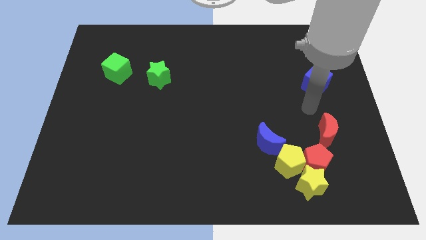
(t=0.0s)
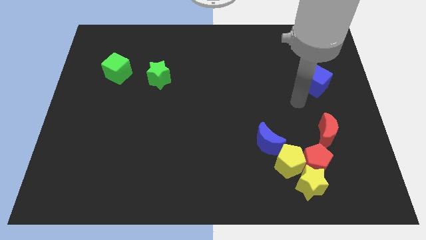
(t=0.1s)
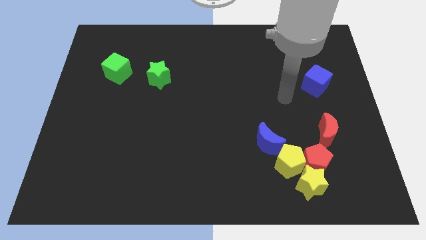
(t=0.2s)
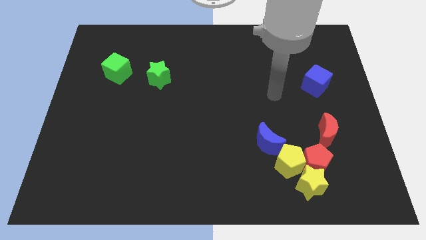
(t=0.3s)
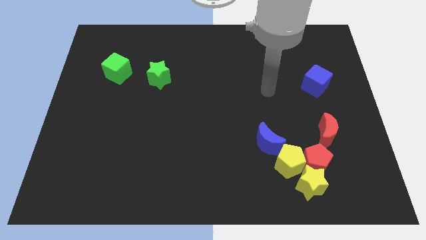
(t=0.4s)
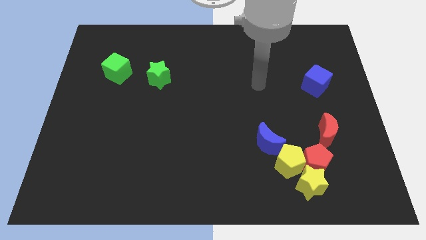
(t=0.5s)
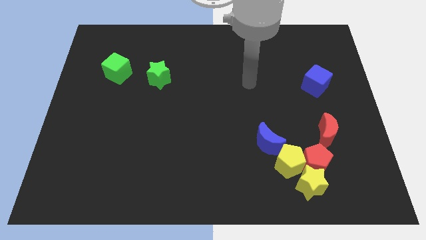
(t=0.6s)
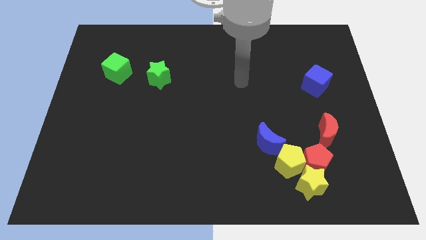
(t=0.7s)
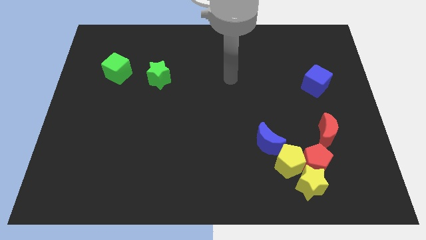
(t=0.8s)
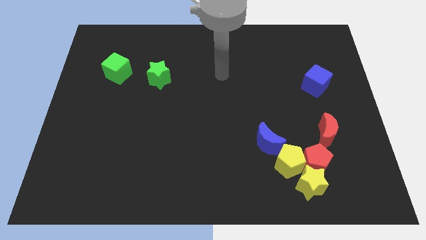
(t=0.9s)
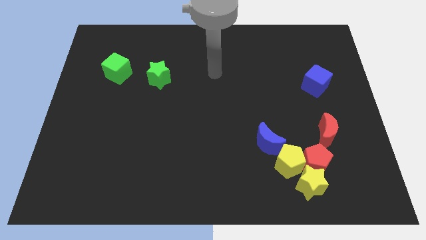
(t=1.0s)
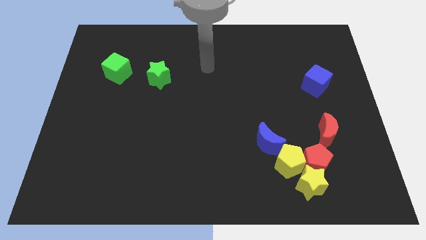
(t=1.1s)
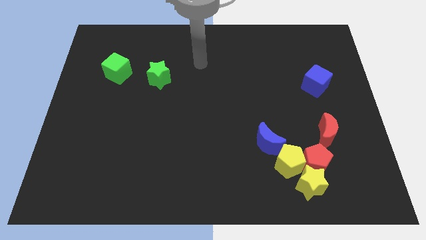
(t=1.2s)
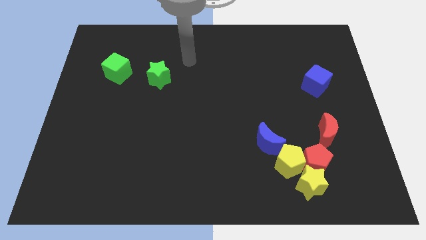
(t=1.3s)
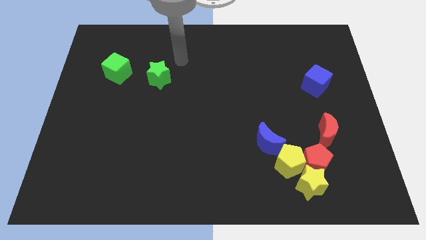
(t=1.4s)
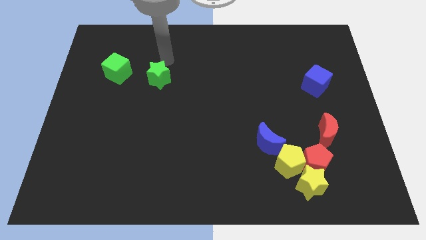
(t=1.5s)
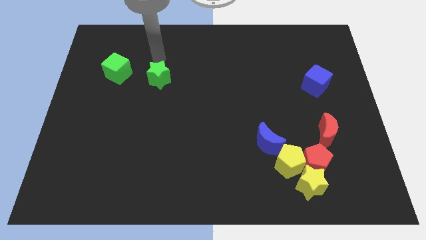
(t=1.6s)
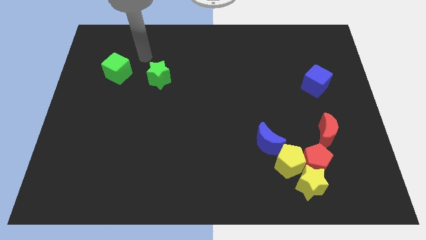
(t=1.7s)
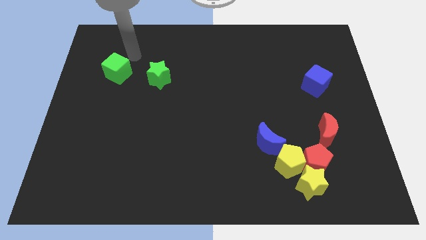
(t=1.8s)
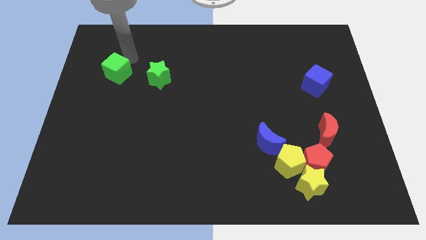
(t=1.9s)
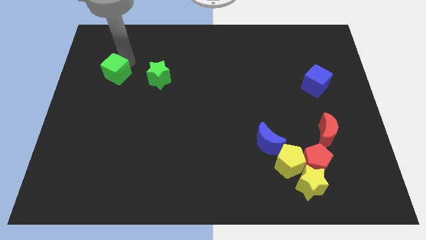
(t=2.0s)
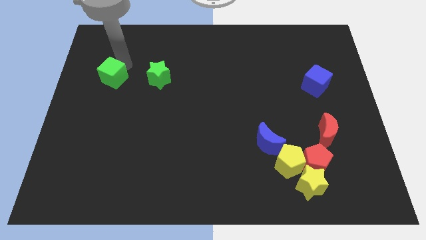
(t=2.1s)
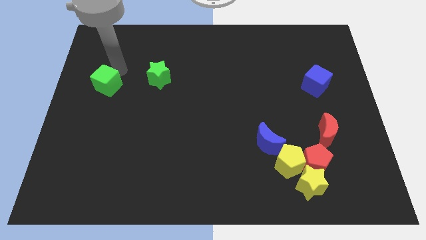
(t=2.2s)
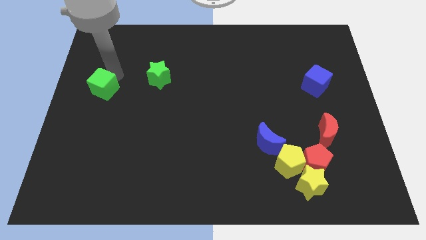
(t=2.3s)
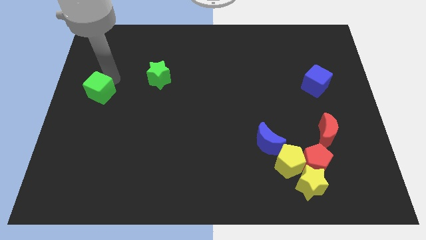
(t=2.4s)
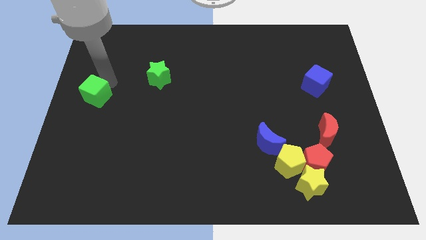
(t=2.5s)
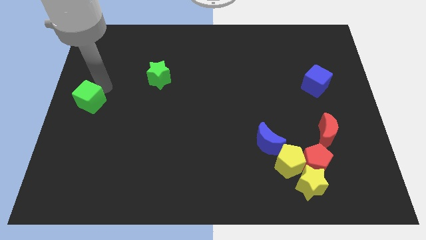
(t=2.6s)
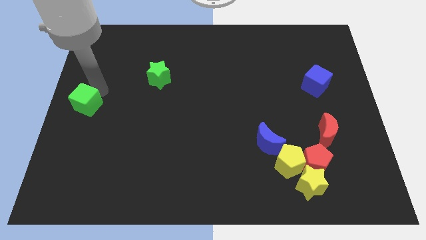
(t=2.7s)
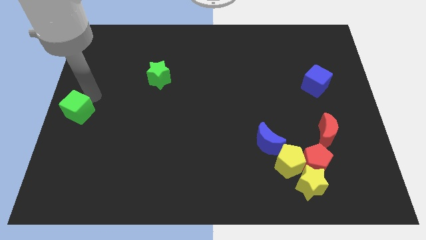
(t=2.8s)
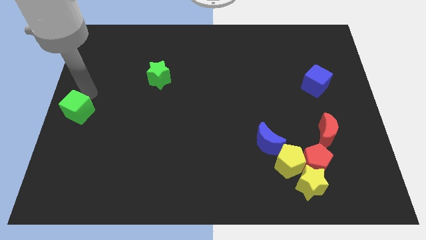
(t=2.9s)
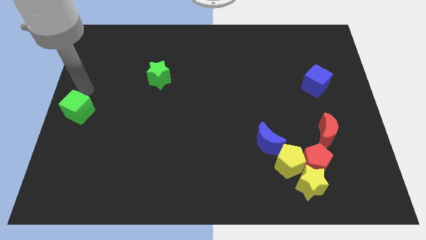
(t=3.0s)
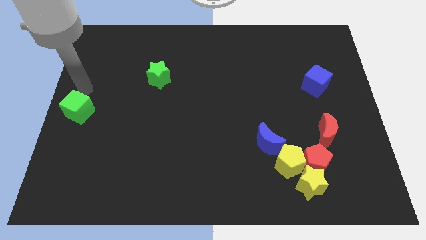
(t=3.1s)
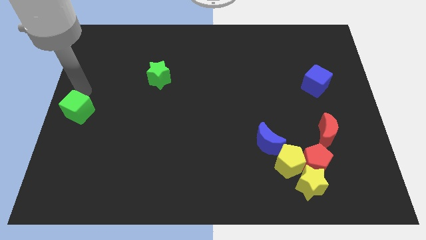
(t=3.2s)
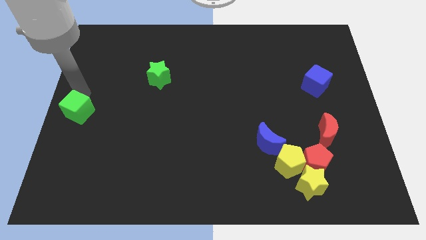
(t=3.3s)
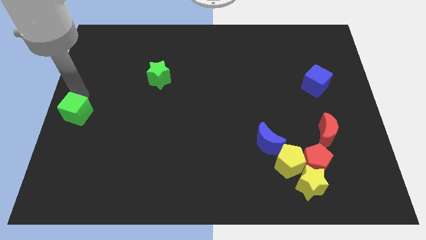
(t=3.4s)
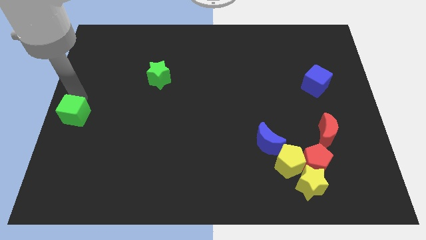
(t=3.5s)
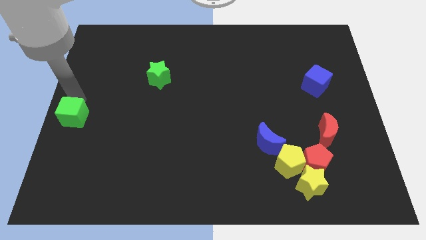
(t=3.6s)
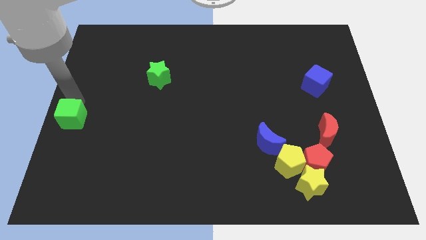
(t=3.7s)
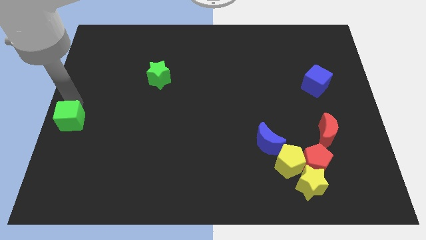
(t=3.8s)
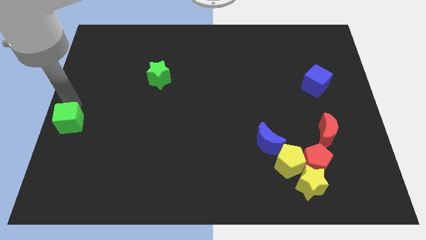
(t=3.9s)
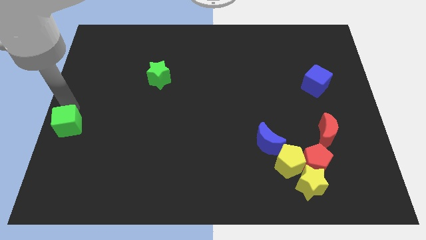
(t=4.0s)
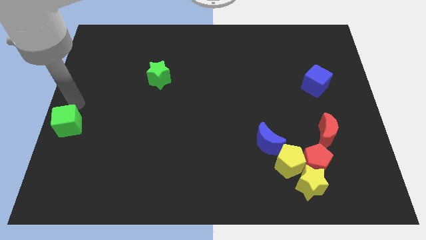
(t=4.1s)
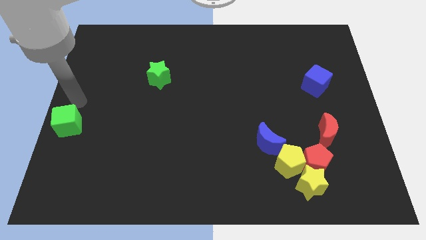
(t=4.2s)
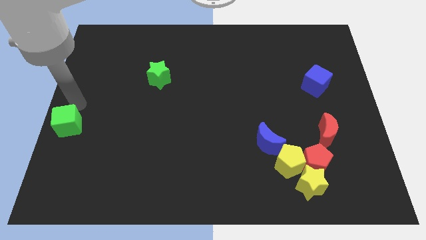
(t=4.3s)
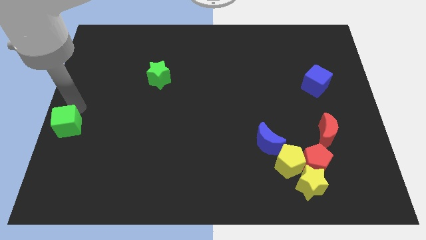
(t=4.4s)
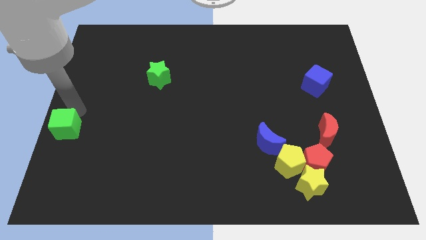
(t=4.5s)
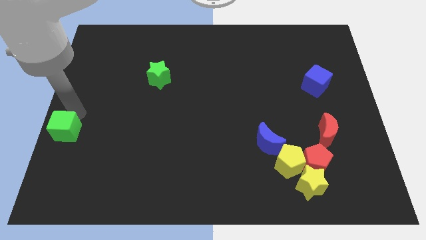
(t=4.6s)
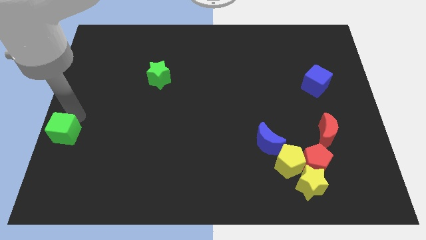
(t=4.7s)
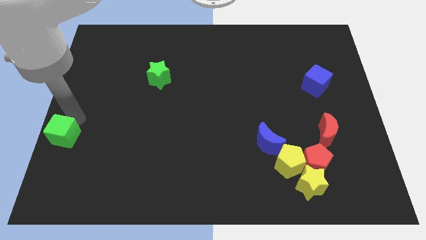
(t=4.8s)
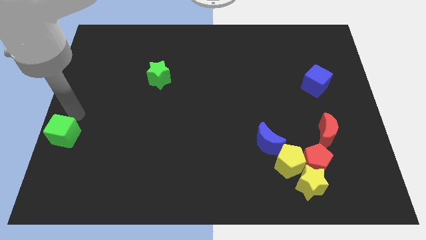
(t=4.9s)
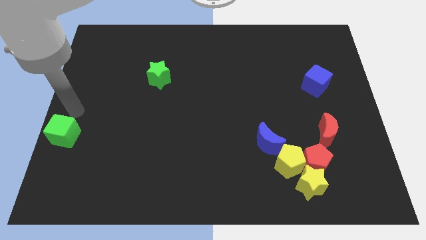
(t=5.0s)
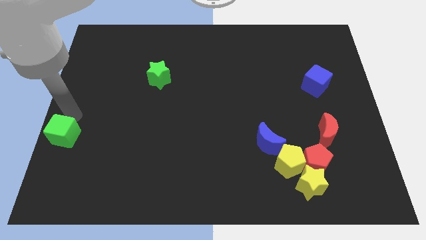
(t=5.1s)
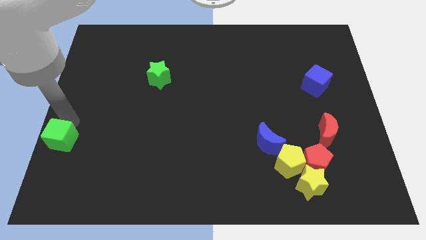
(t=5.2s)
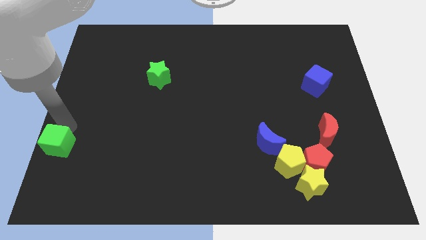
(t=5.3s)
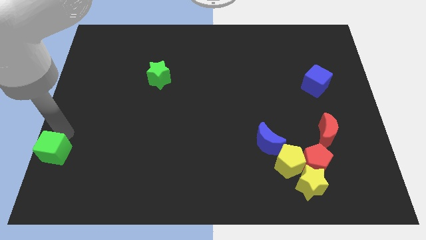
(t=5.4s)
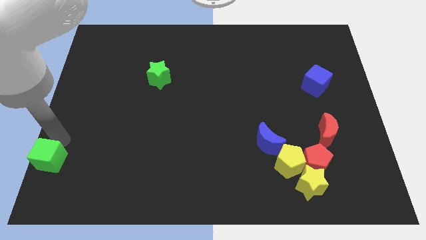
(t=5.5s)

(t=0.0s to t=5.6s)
move the green cube to the bottom left

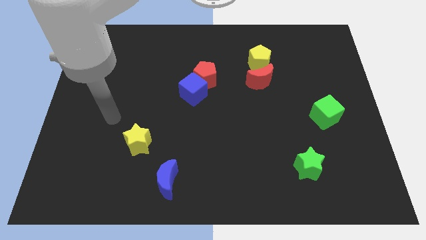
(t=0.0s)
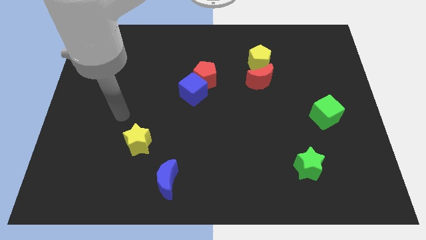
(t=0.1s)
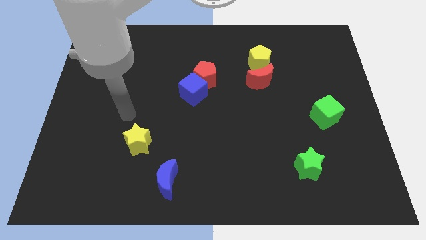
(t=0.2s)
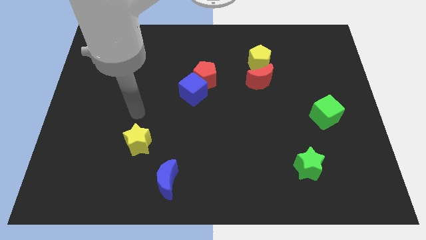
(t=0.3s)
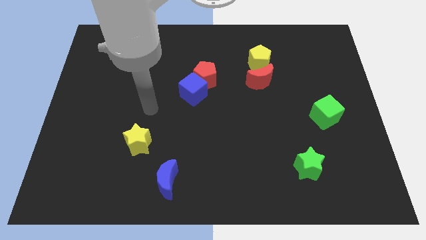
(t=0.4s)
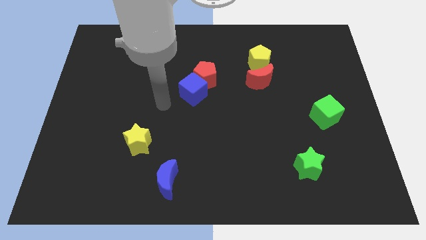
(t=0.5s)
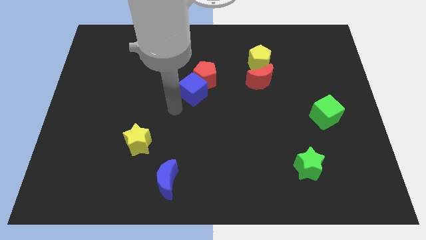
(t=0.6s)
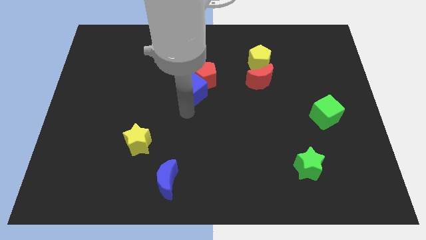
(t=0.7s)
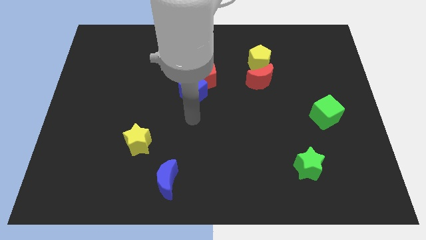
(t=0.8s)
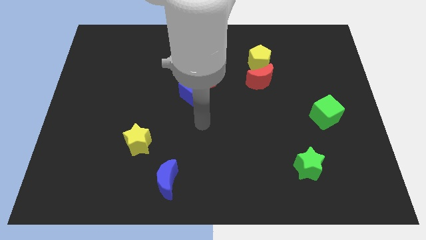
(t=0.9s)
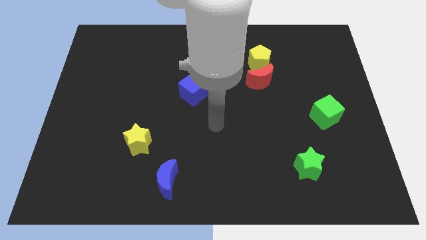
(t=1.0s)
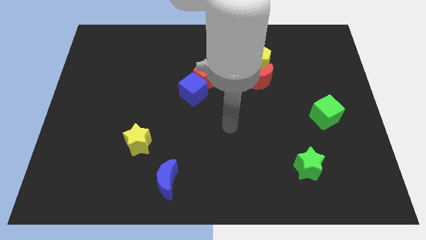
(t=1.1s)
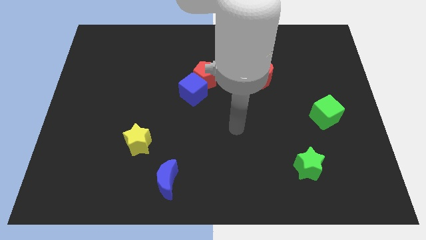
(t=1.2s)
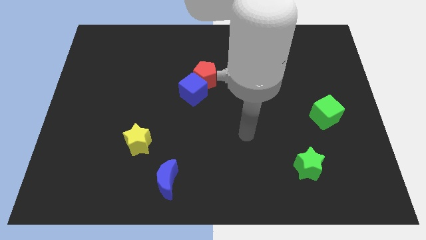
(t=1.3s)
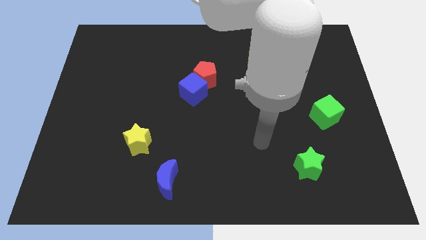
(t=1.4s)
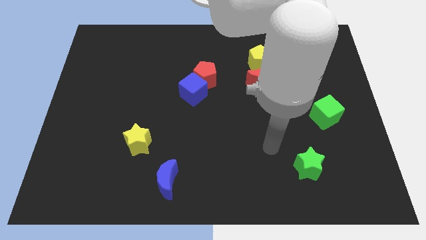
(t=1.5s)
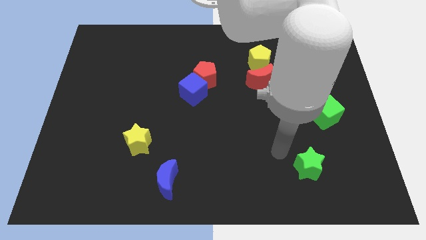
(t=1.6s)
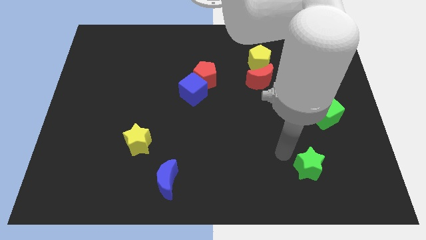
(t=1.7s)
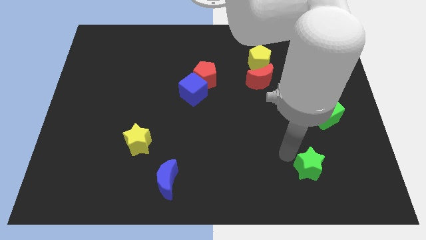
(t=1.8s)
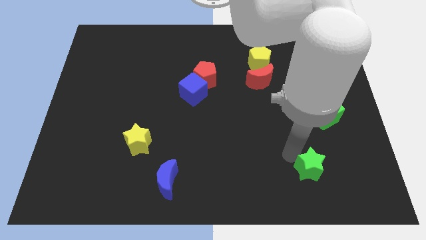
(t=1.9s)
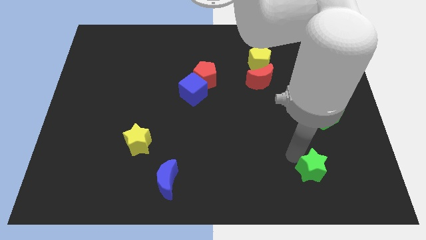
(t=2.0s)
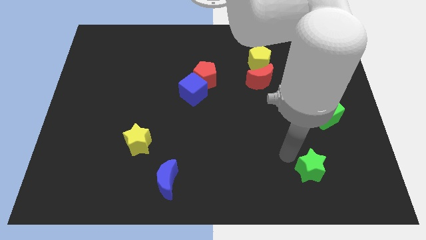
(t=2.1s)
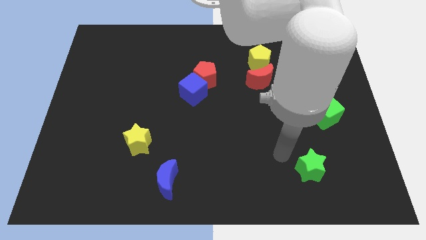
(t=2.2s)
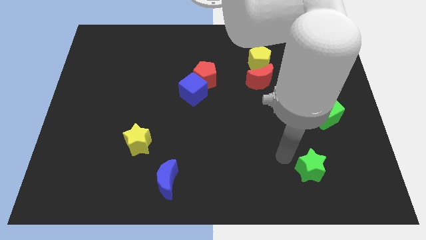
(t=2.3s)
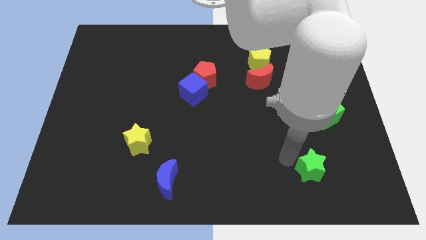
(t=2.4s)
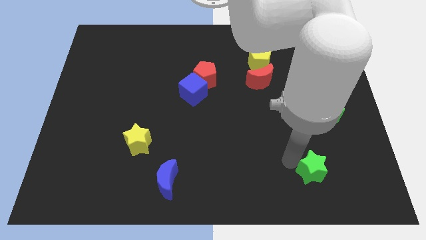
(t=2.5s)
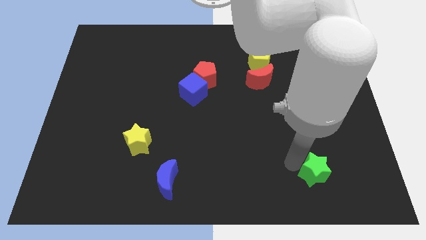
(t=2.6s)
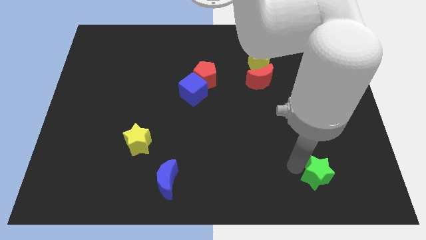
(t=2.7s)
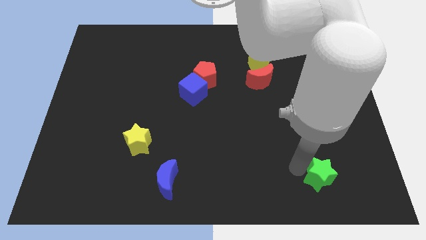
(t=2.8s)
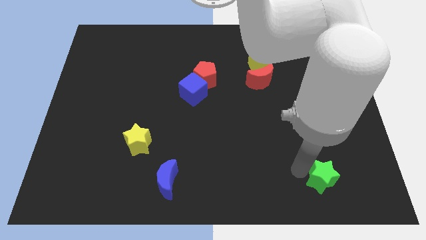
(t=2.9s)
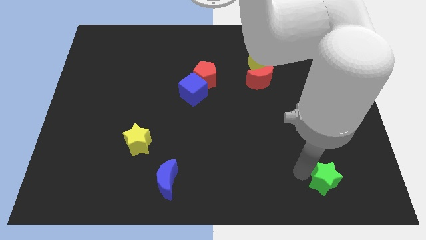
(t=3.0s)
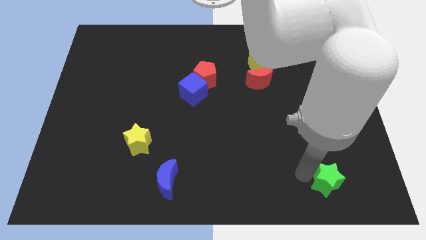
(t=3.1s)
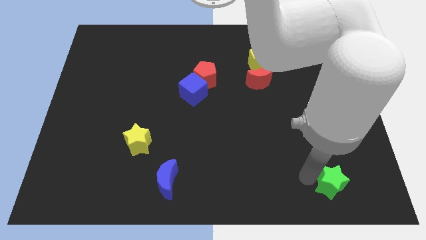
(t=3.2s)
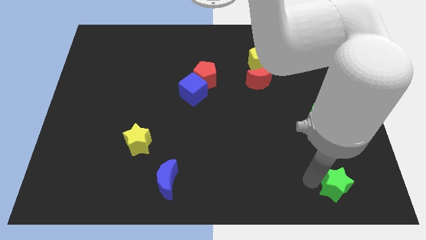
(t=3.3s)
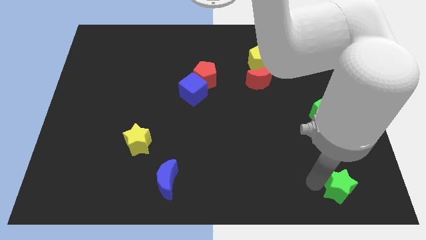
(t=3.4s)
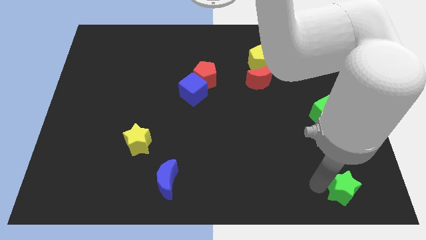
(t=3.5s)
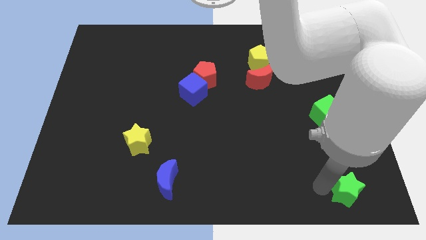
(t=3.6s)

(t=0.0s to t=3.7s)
slide the green star to the bottom right
